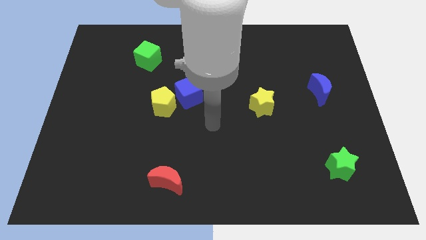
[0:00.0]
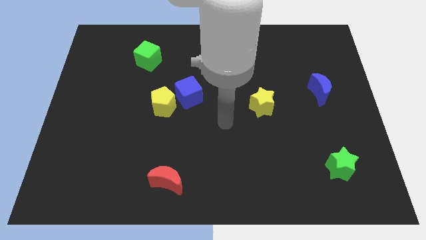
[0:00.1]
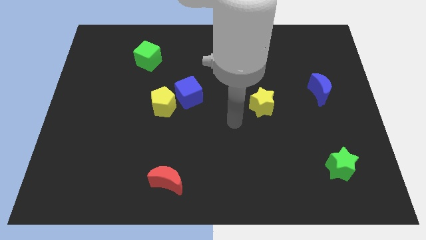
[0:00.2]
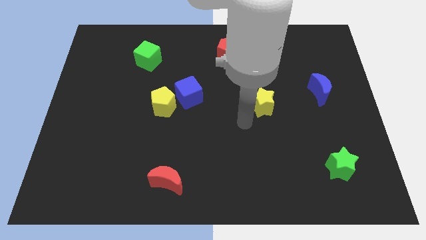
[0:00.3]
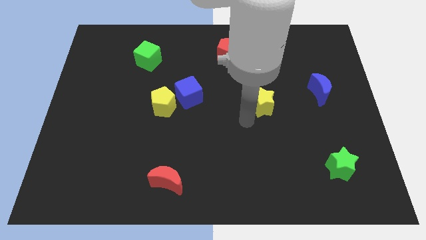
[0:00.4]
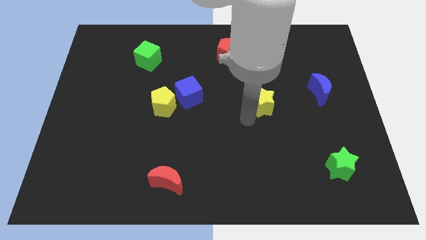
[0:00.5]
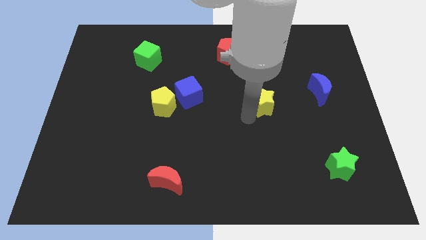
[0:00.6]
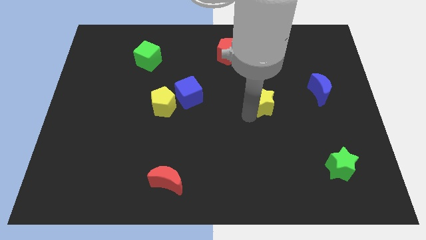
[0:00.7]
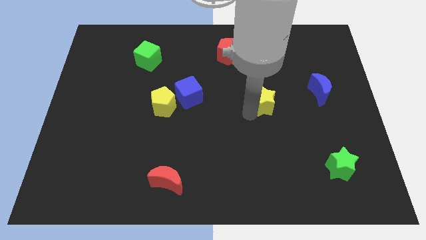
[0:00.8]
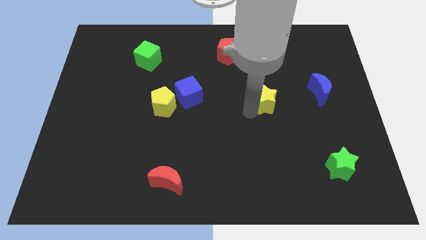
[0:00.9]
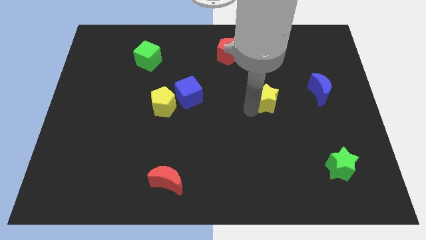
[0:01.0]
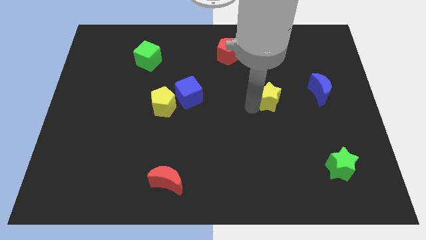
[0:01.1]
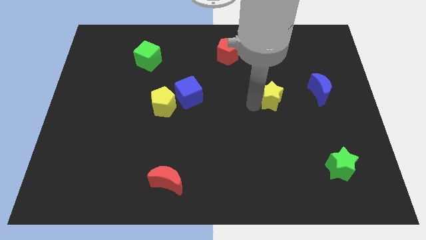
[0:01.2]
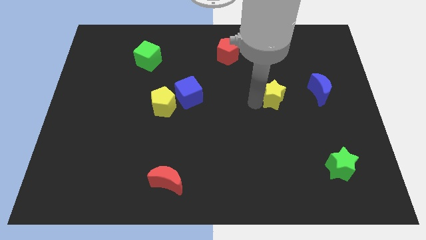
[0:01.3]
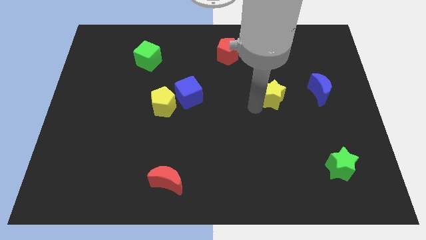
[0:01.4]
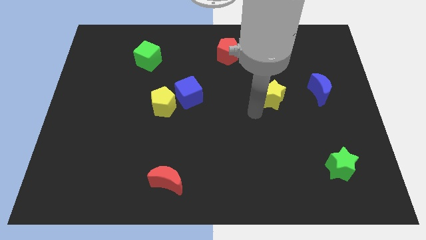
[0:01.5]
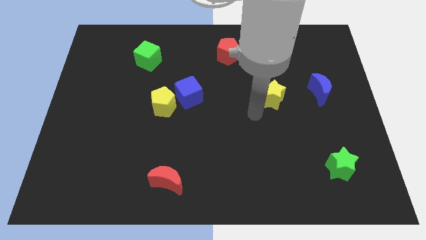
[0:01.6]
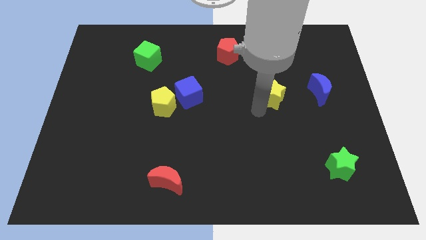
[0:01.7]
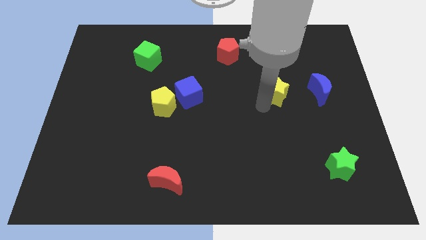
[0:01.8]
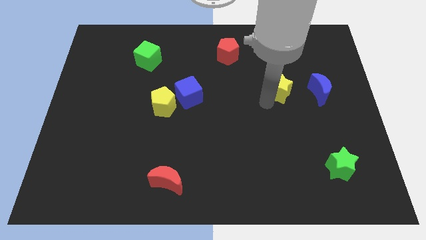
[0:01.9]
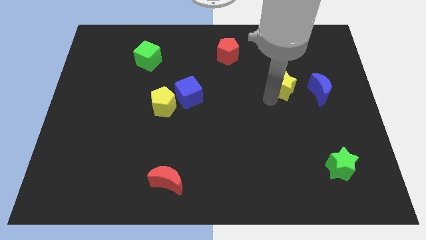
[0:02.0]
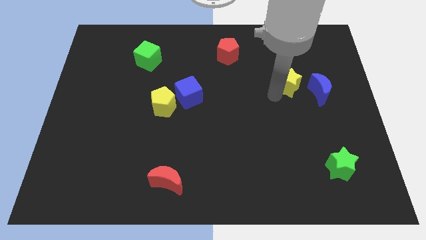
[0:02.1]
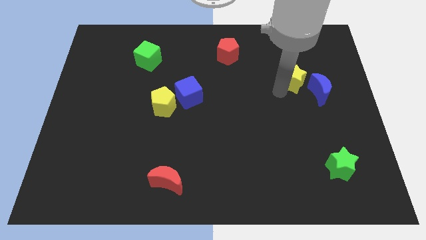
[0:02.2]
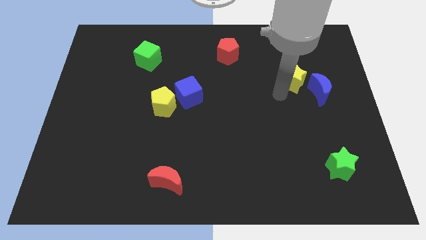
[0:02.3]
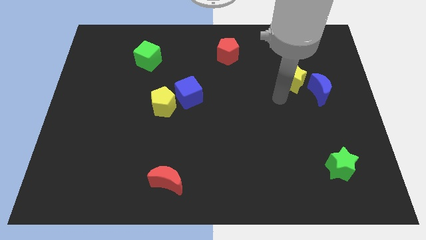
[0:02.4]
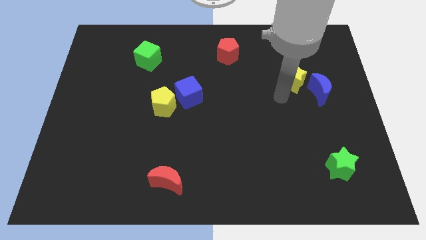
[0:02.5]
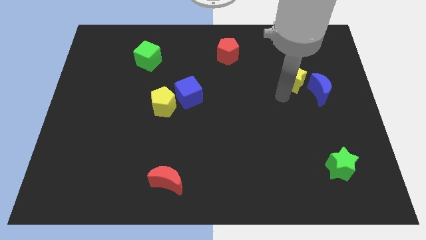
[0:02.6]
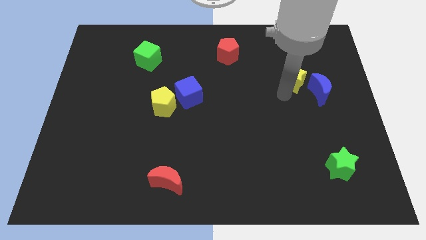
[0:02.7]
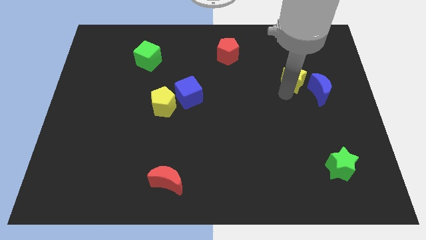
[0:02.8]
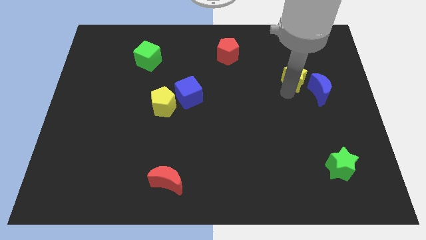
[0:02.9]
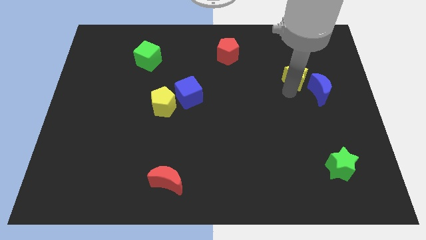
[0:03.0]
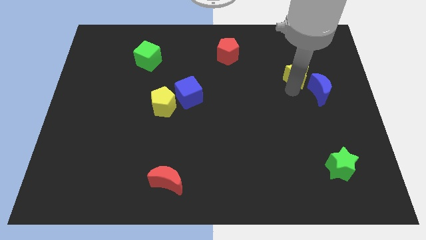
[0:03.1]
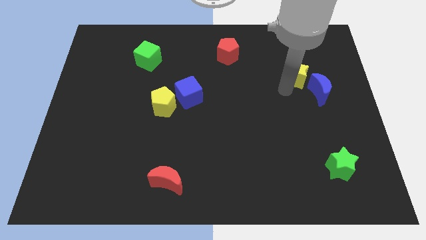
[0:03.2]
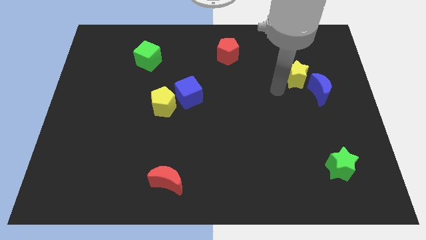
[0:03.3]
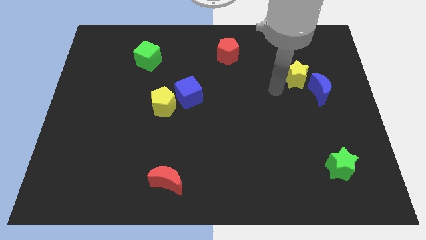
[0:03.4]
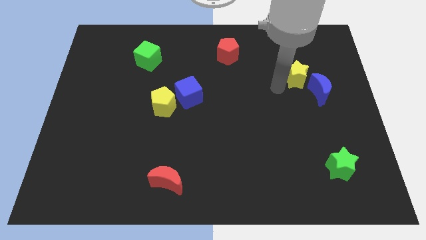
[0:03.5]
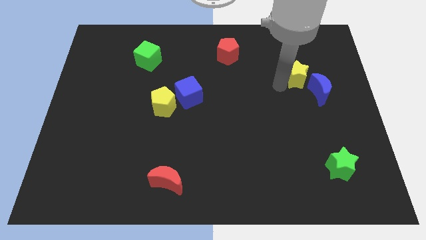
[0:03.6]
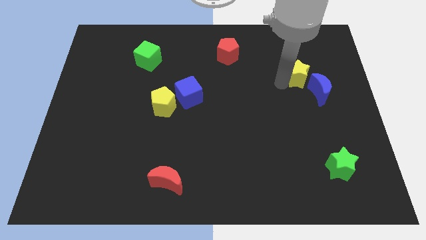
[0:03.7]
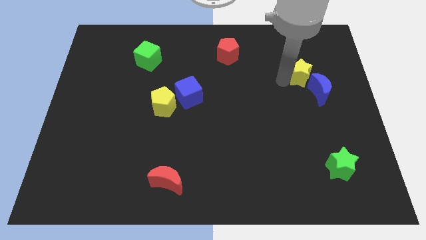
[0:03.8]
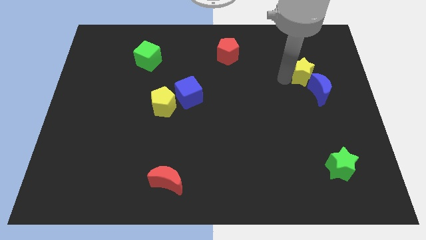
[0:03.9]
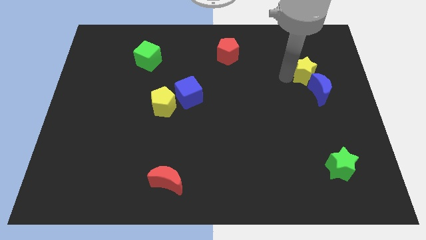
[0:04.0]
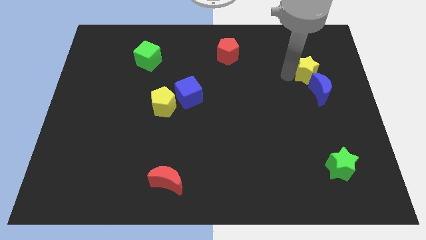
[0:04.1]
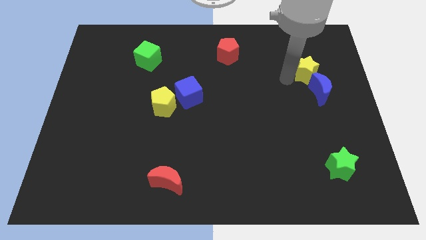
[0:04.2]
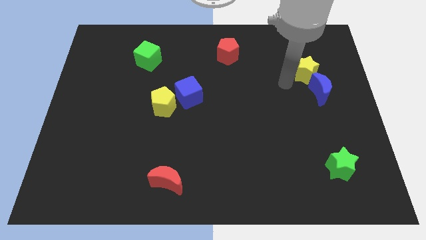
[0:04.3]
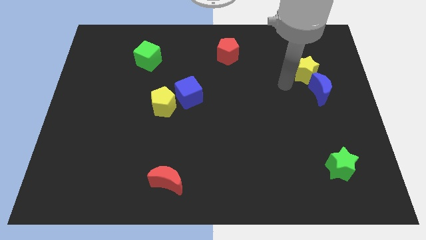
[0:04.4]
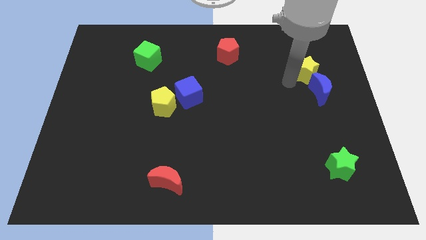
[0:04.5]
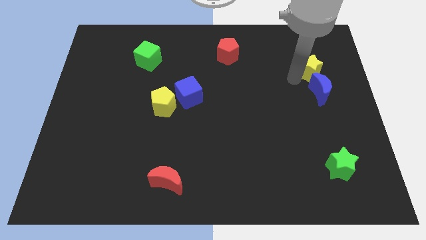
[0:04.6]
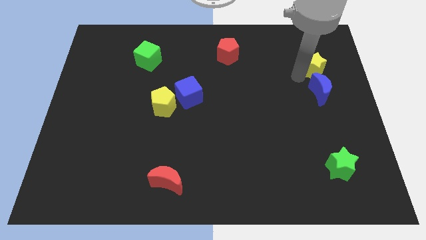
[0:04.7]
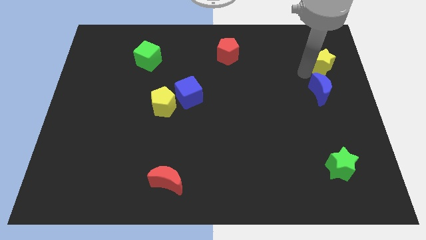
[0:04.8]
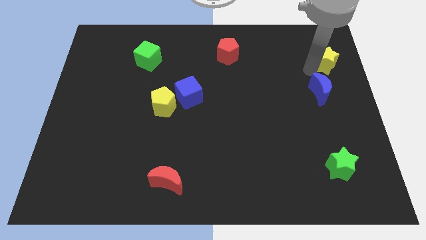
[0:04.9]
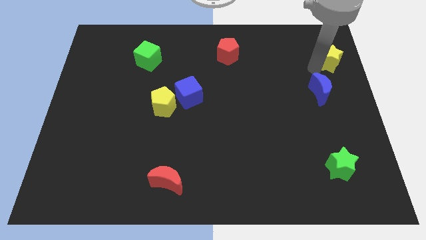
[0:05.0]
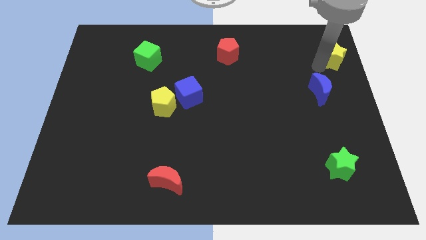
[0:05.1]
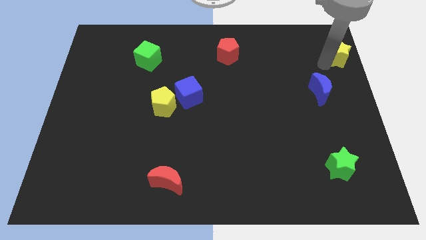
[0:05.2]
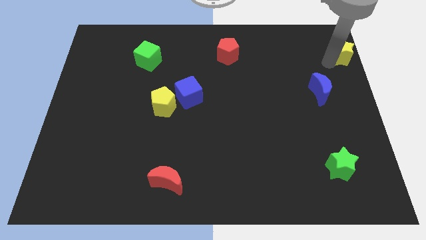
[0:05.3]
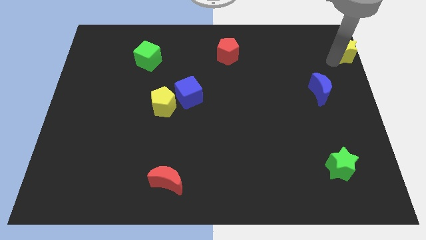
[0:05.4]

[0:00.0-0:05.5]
put the yellow star to the top right of the board

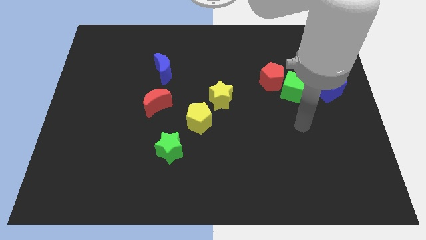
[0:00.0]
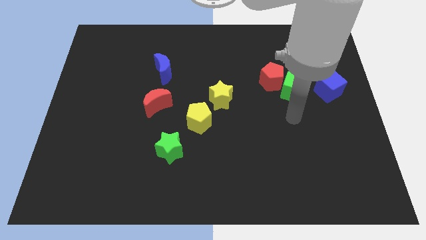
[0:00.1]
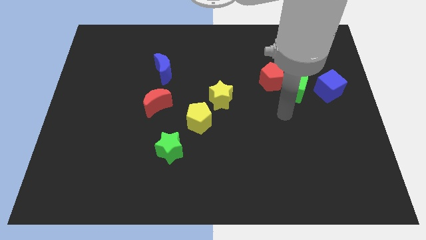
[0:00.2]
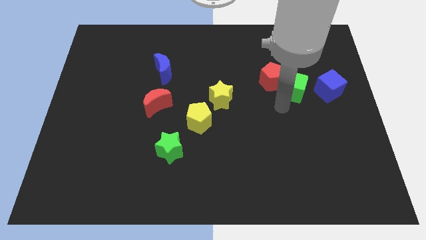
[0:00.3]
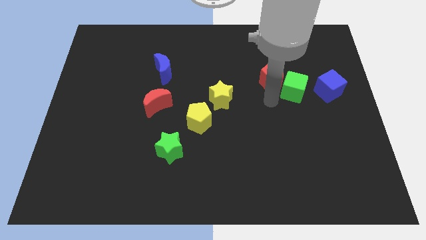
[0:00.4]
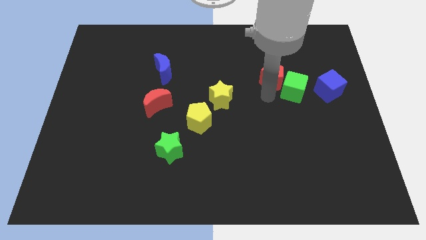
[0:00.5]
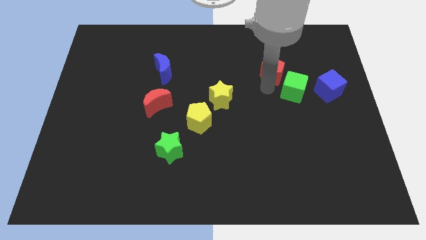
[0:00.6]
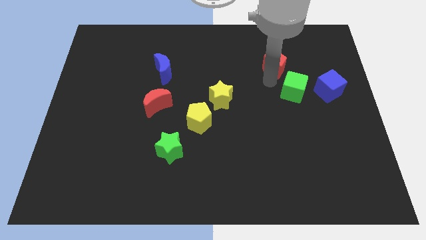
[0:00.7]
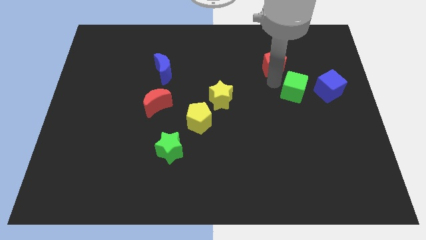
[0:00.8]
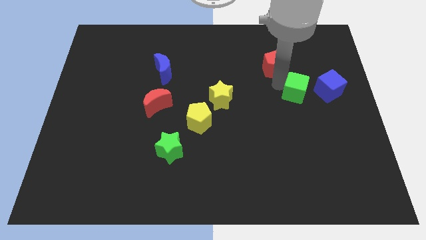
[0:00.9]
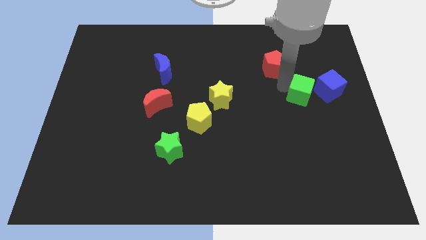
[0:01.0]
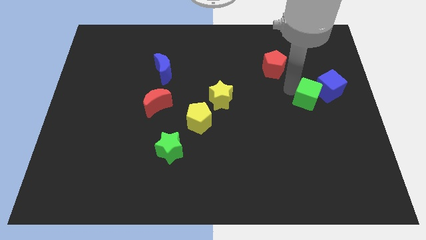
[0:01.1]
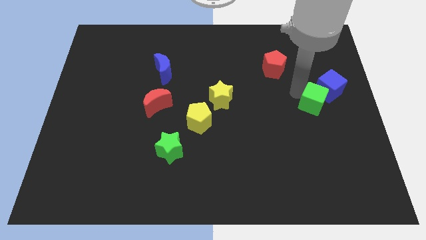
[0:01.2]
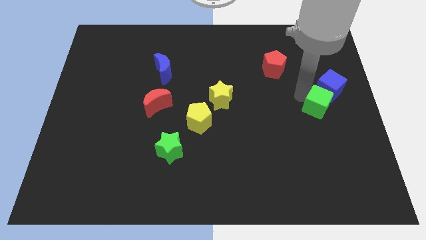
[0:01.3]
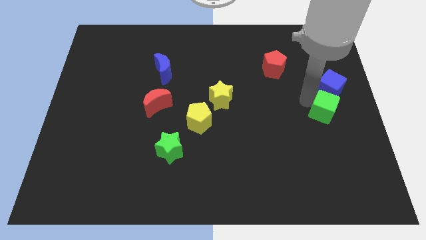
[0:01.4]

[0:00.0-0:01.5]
push the green cube to the center right
